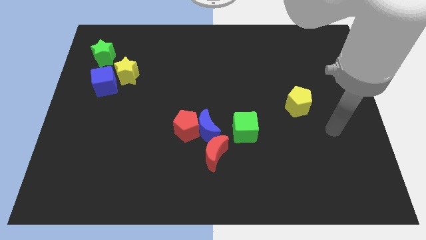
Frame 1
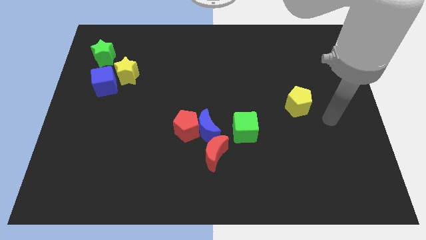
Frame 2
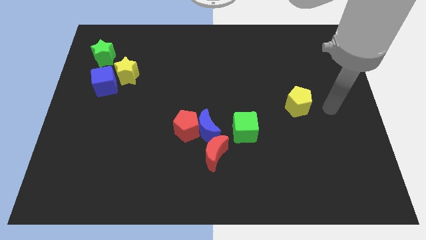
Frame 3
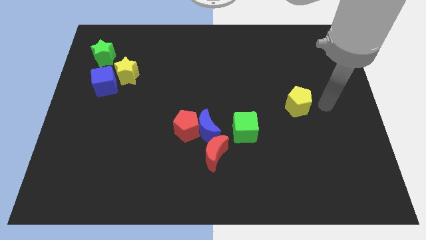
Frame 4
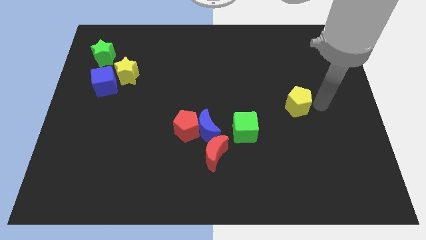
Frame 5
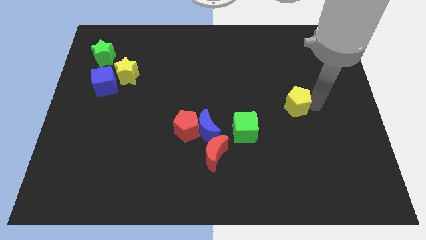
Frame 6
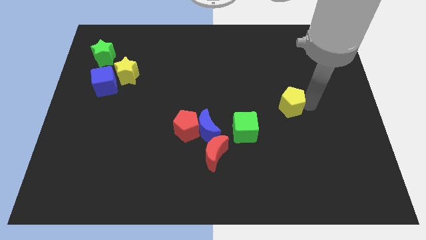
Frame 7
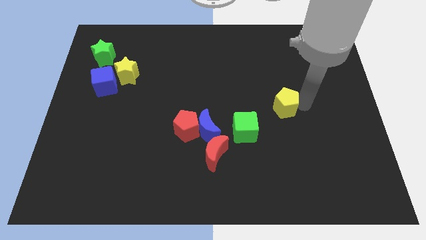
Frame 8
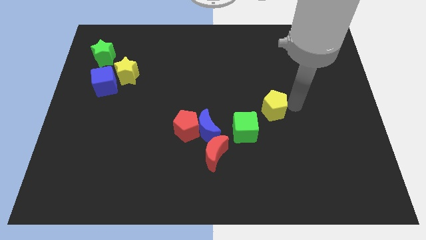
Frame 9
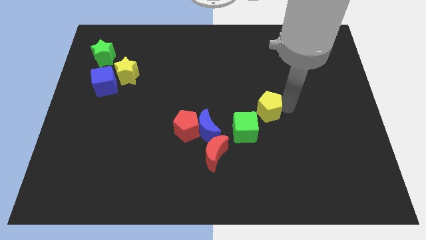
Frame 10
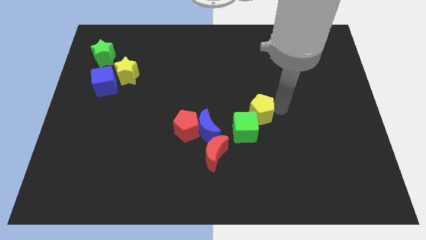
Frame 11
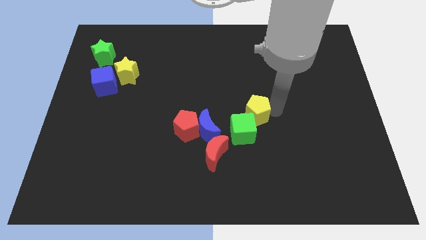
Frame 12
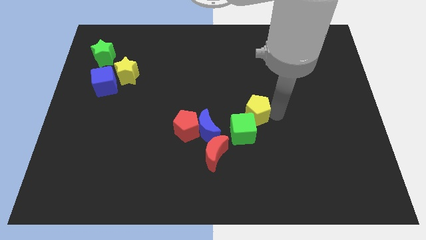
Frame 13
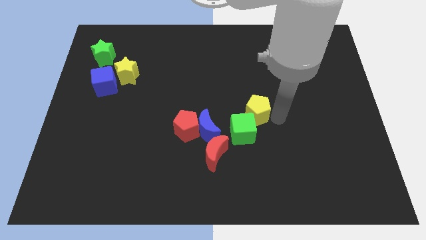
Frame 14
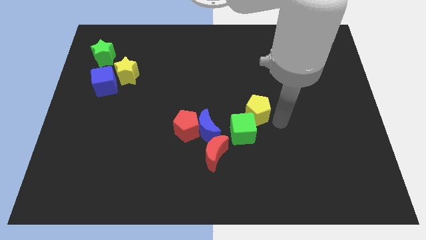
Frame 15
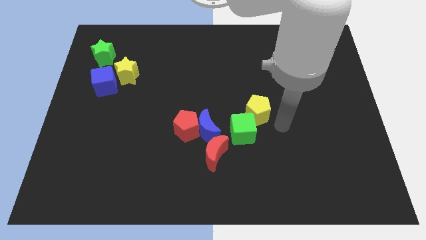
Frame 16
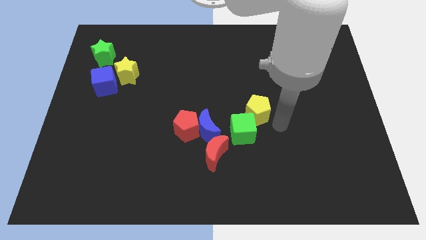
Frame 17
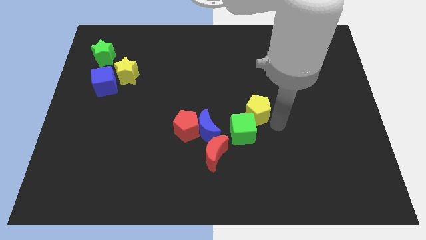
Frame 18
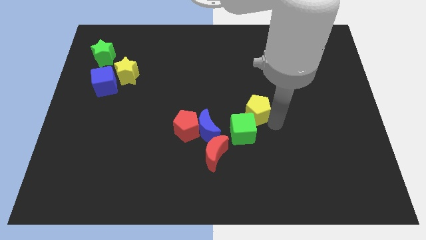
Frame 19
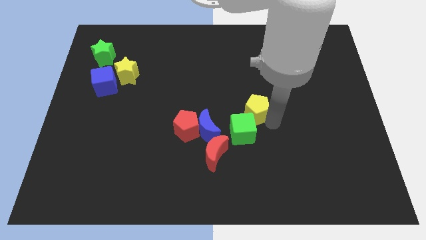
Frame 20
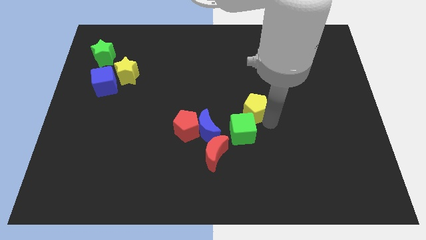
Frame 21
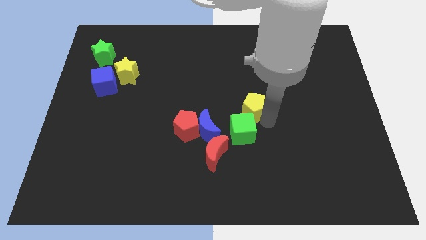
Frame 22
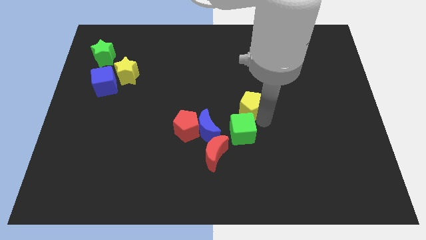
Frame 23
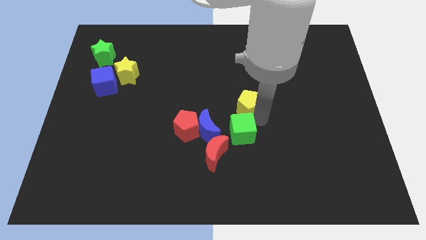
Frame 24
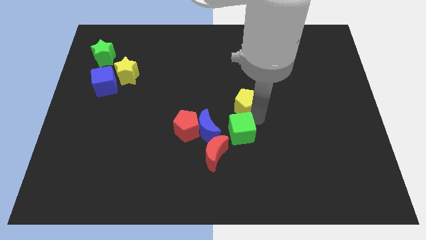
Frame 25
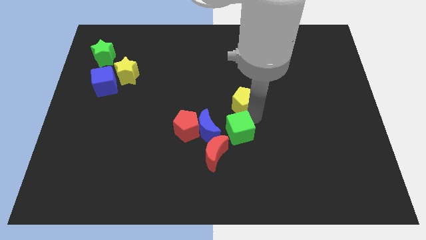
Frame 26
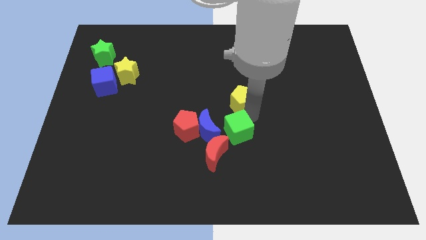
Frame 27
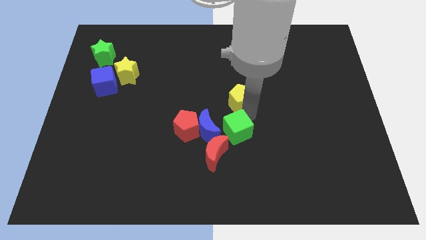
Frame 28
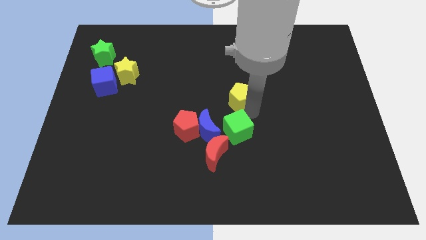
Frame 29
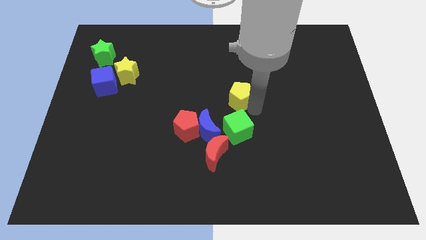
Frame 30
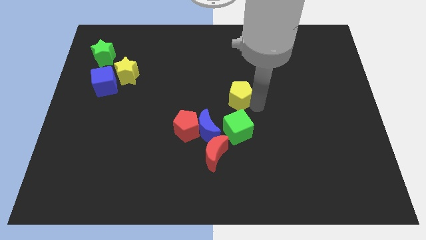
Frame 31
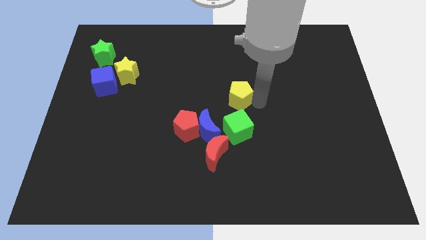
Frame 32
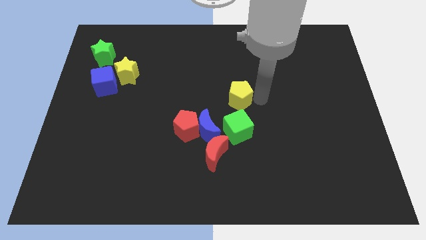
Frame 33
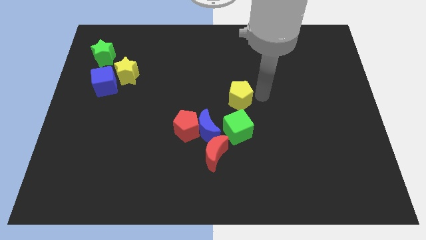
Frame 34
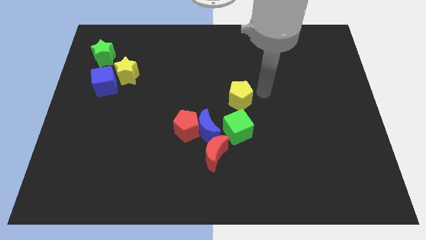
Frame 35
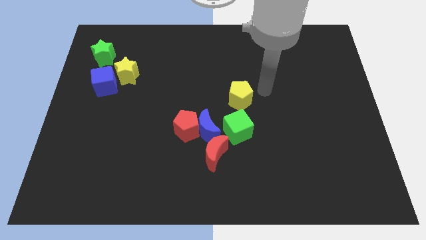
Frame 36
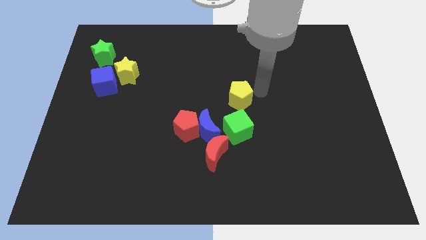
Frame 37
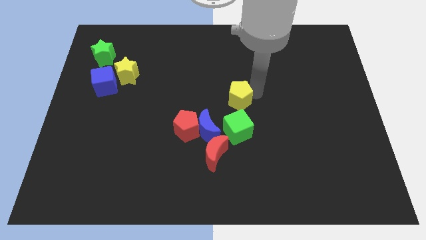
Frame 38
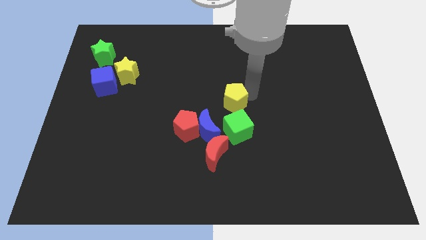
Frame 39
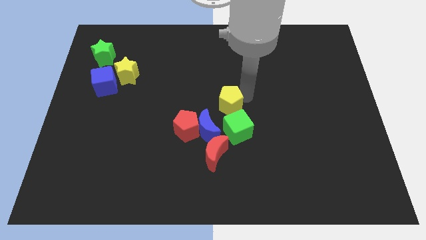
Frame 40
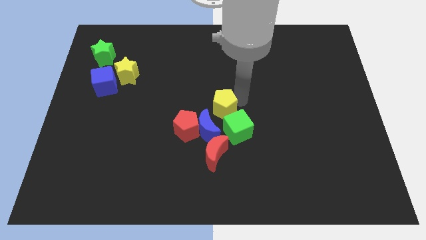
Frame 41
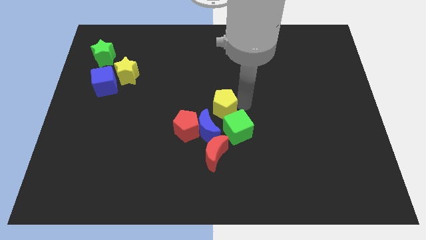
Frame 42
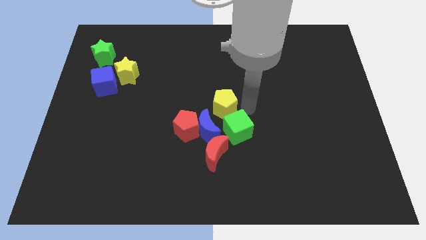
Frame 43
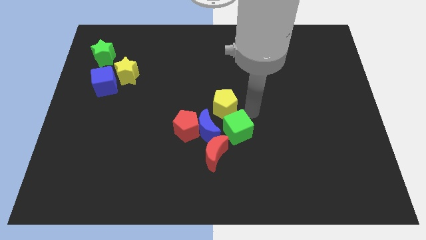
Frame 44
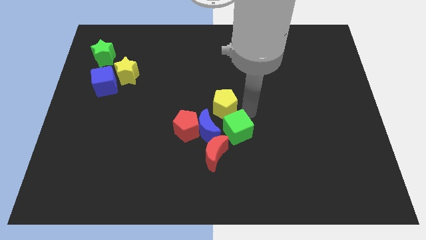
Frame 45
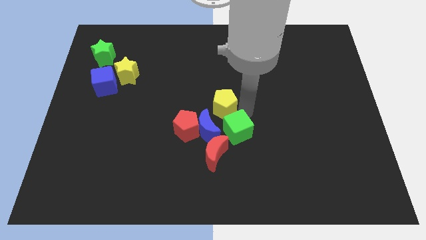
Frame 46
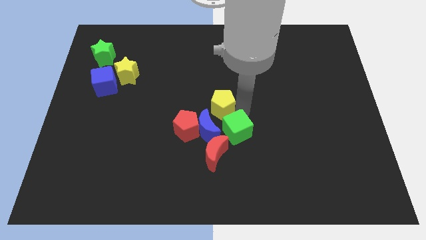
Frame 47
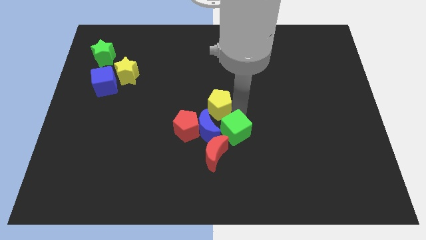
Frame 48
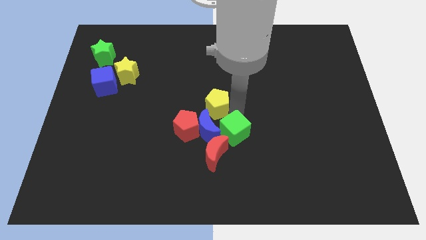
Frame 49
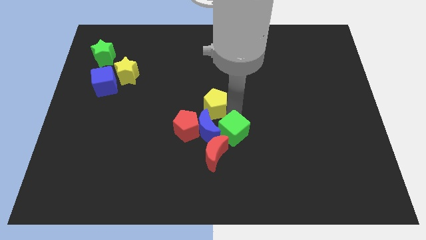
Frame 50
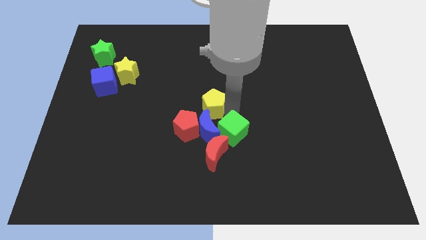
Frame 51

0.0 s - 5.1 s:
move the yellow pentagon to the left

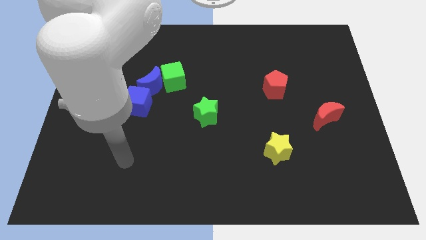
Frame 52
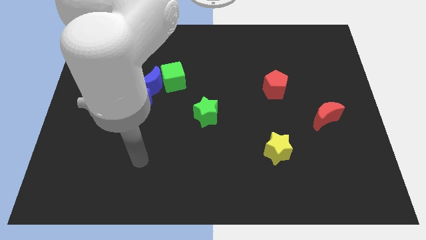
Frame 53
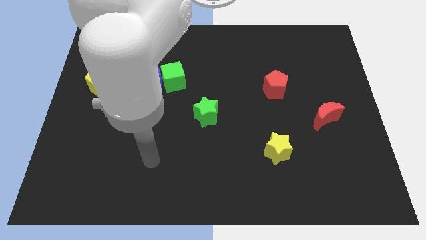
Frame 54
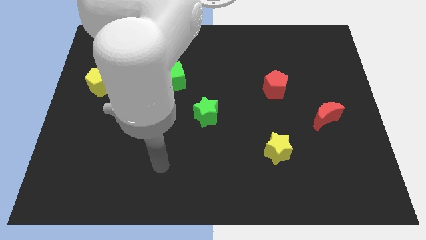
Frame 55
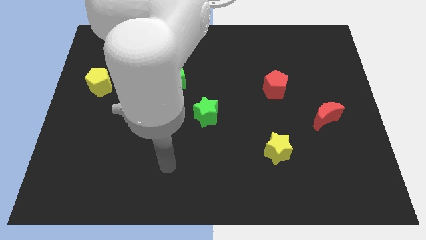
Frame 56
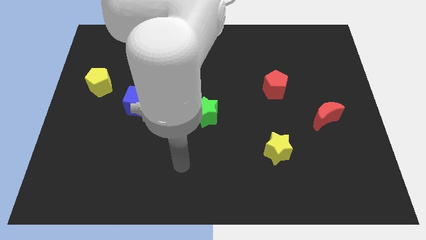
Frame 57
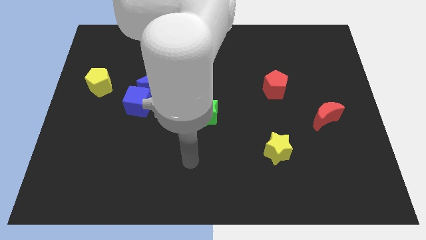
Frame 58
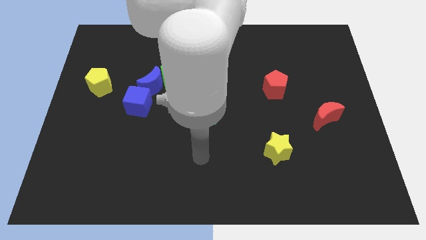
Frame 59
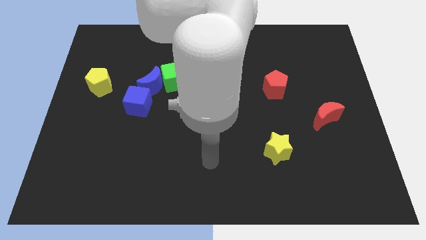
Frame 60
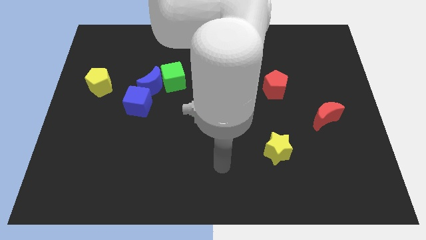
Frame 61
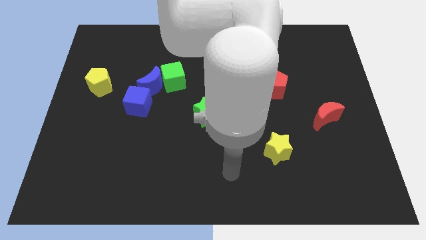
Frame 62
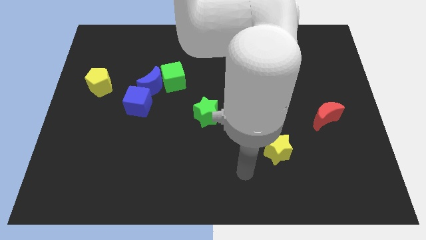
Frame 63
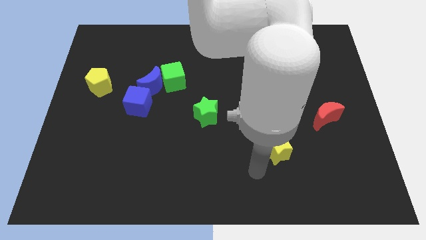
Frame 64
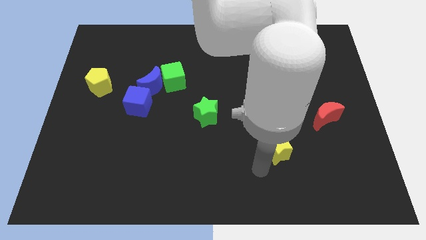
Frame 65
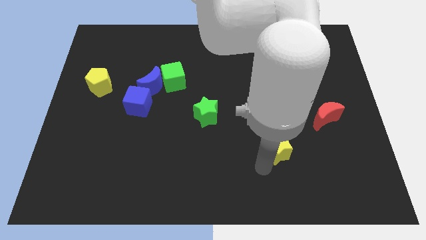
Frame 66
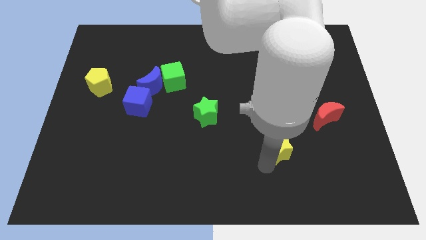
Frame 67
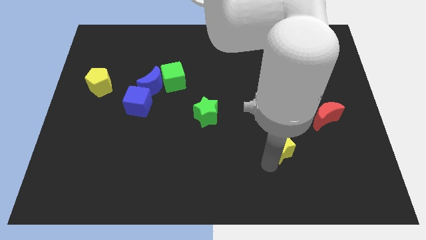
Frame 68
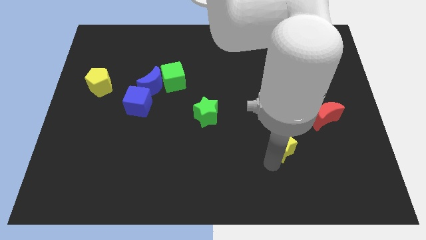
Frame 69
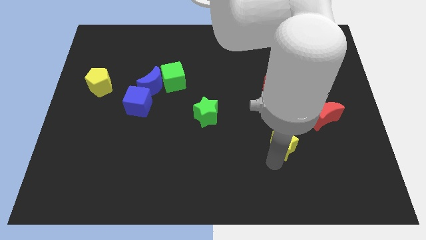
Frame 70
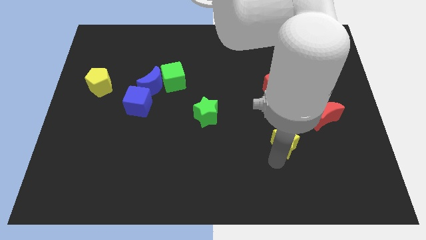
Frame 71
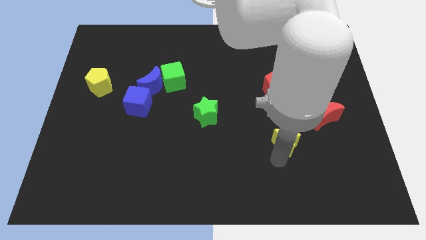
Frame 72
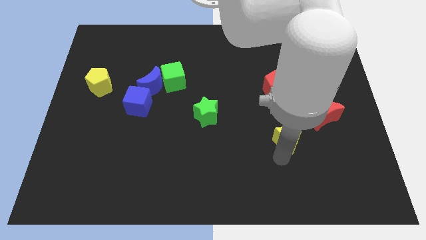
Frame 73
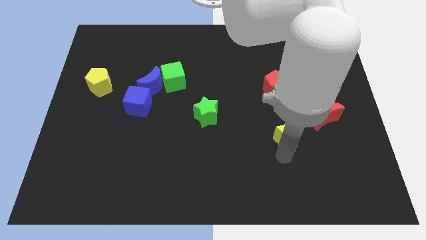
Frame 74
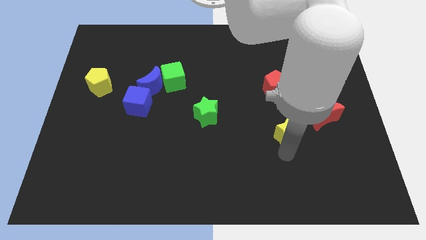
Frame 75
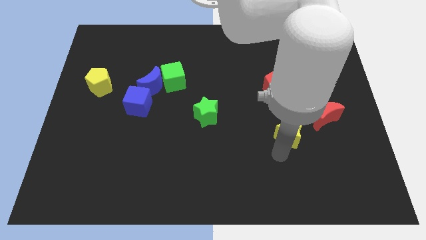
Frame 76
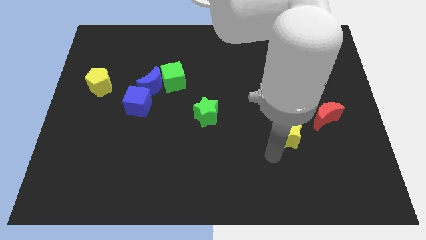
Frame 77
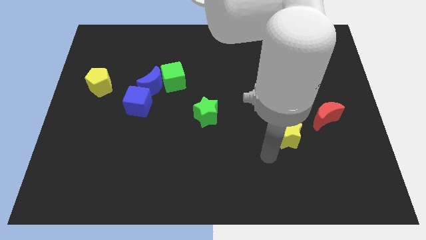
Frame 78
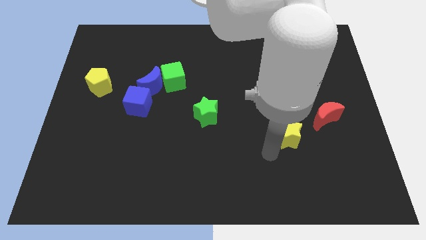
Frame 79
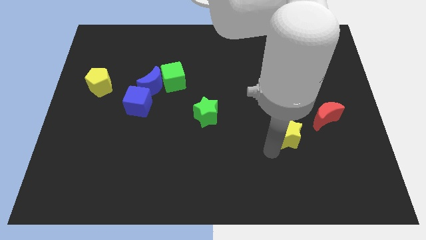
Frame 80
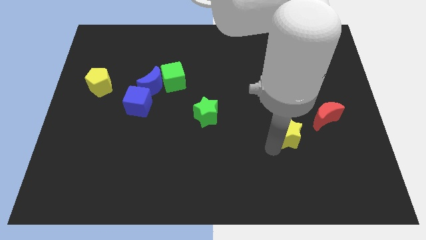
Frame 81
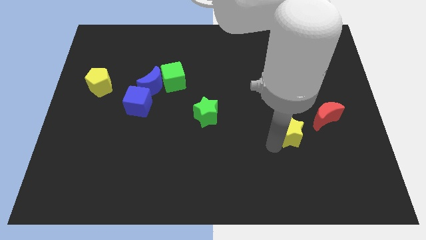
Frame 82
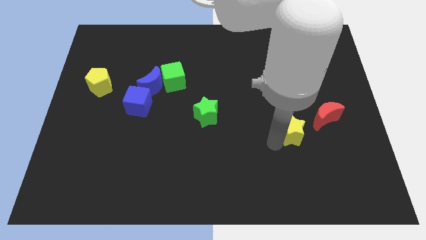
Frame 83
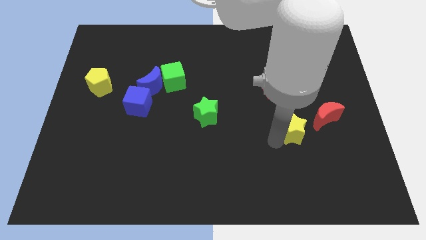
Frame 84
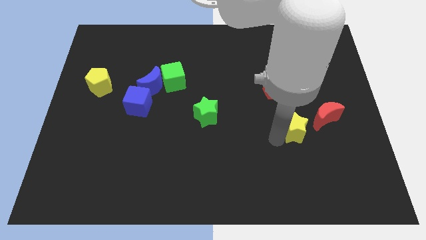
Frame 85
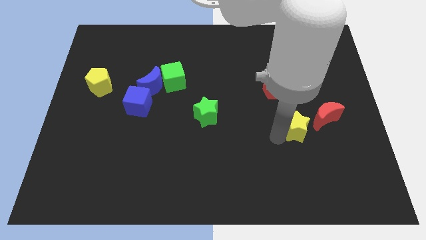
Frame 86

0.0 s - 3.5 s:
move the yellow star slightly upwards and then to the right
